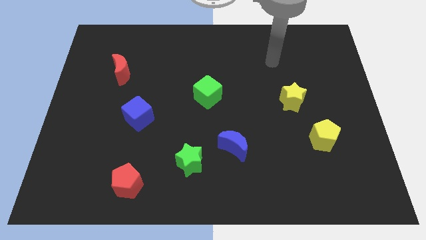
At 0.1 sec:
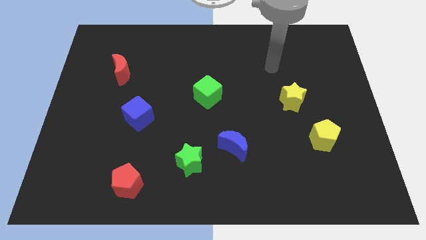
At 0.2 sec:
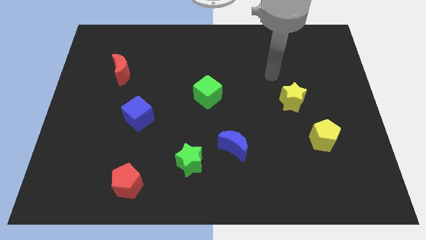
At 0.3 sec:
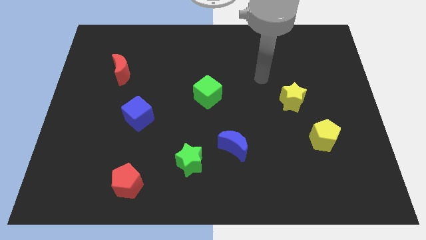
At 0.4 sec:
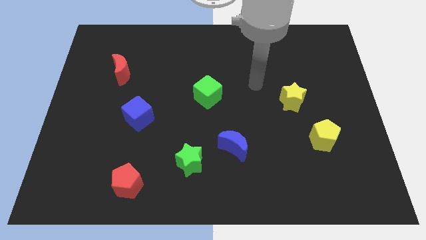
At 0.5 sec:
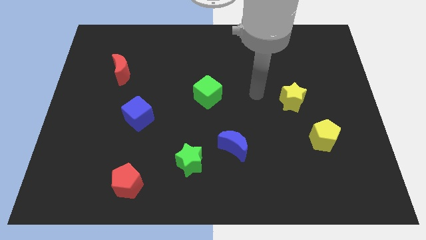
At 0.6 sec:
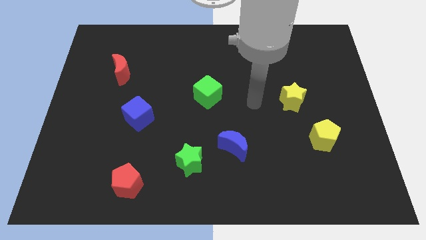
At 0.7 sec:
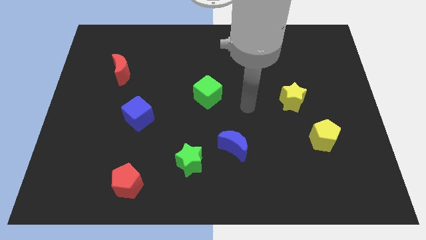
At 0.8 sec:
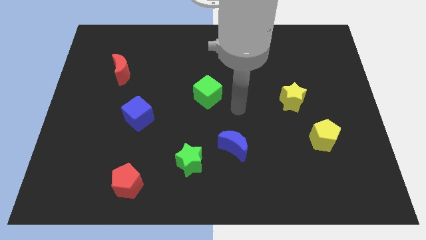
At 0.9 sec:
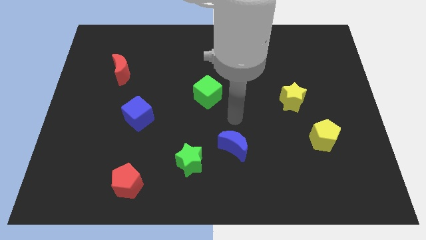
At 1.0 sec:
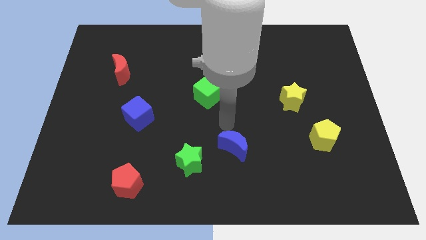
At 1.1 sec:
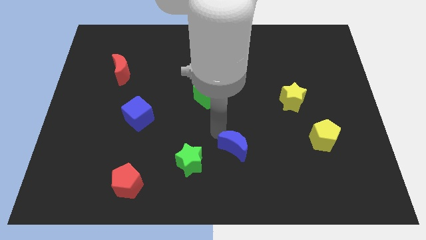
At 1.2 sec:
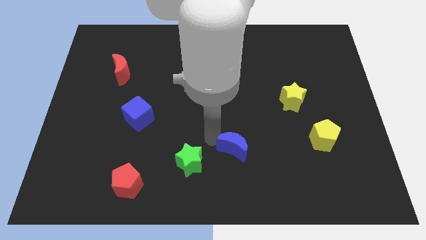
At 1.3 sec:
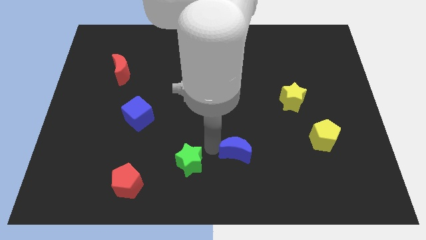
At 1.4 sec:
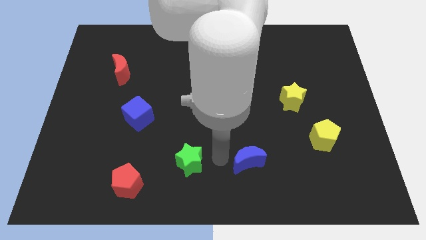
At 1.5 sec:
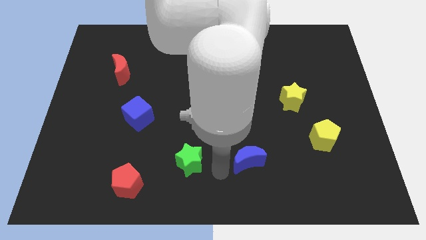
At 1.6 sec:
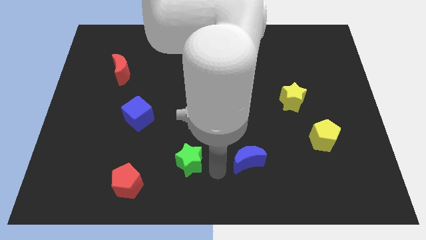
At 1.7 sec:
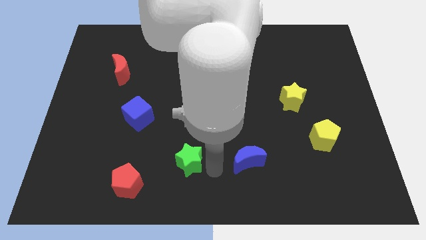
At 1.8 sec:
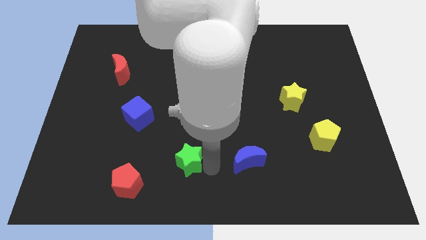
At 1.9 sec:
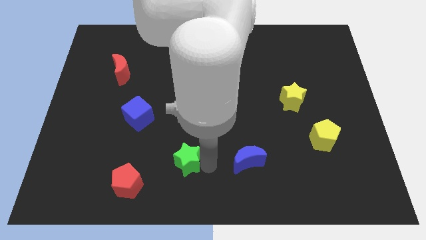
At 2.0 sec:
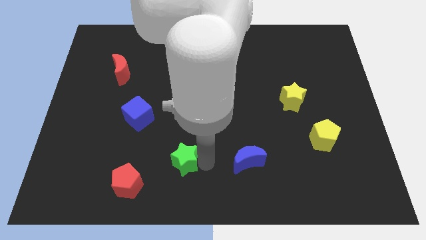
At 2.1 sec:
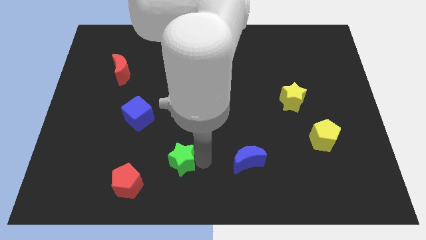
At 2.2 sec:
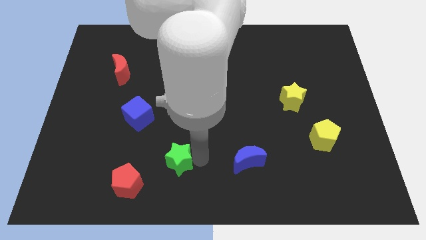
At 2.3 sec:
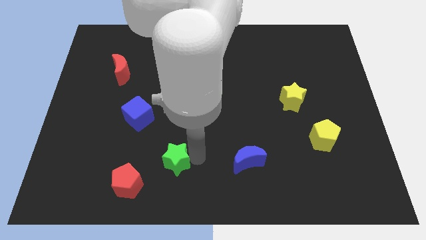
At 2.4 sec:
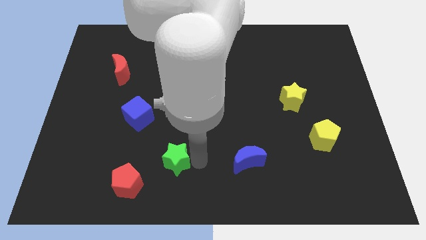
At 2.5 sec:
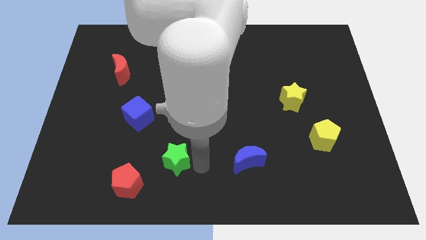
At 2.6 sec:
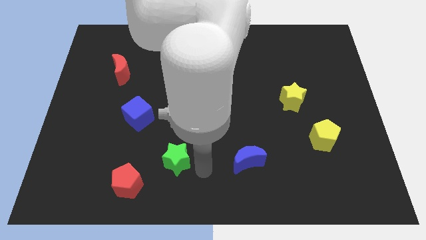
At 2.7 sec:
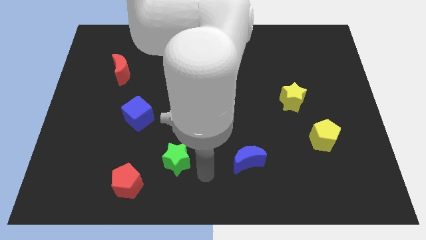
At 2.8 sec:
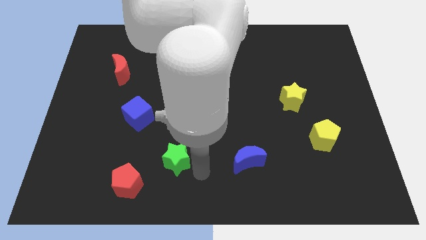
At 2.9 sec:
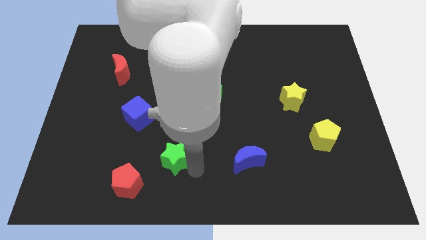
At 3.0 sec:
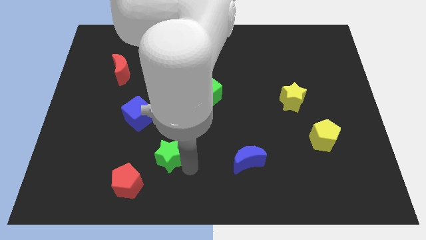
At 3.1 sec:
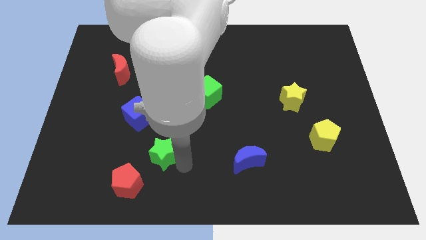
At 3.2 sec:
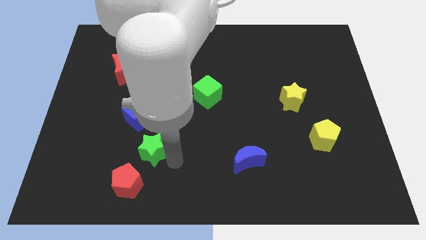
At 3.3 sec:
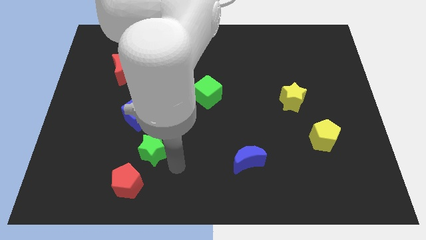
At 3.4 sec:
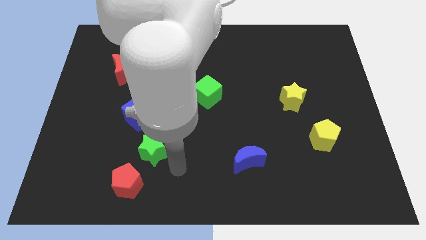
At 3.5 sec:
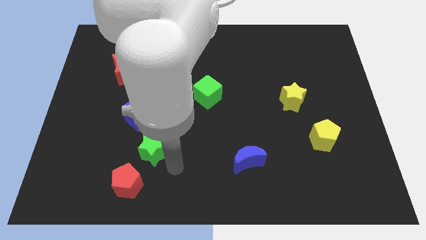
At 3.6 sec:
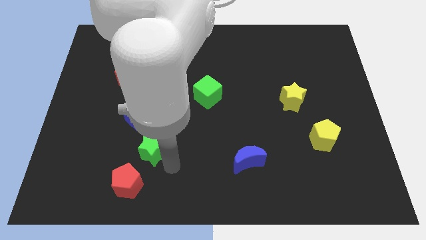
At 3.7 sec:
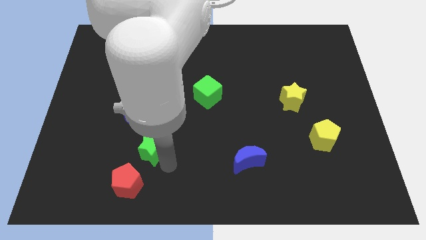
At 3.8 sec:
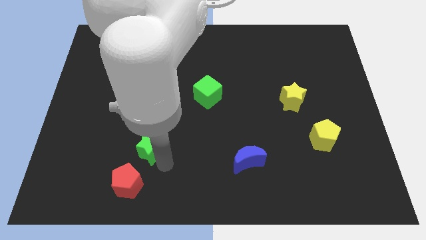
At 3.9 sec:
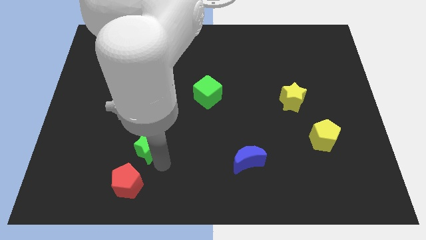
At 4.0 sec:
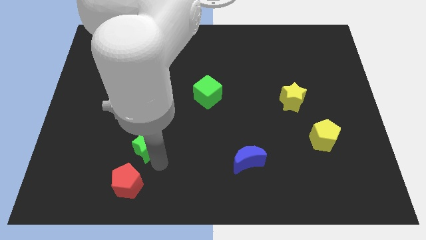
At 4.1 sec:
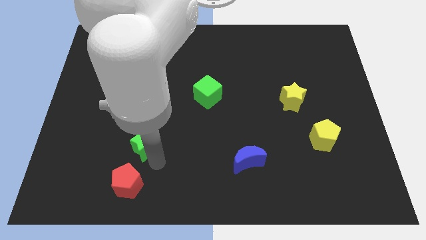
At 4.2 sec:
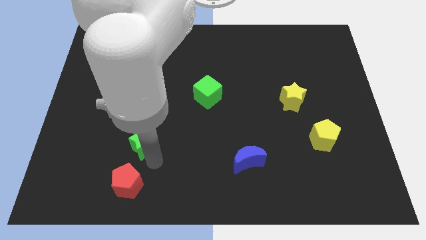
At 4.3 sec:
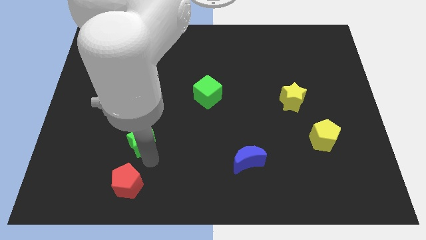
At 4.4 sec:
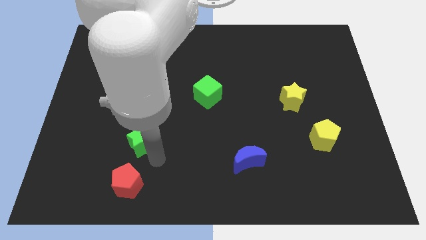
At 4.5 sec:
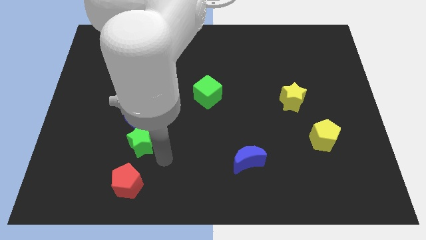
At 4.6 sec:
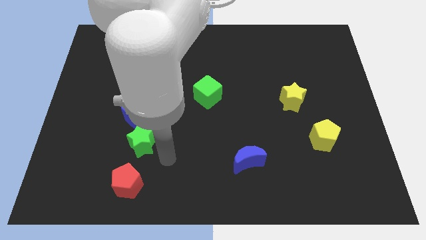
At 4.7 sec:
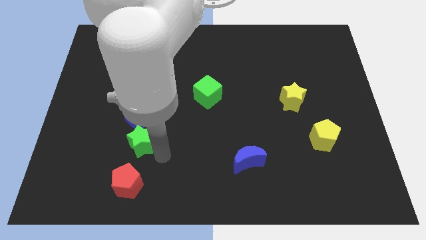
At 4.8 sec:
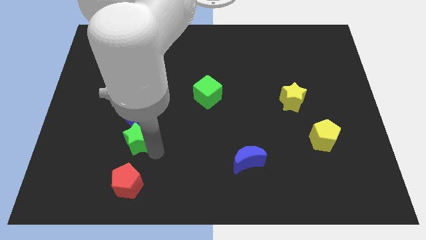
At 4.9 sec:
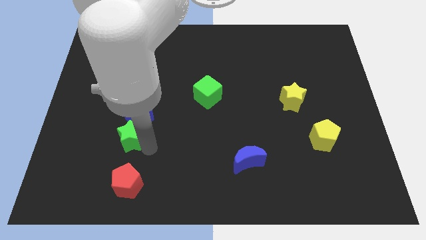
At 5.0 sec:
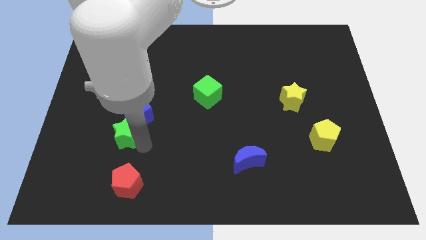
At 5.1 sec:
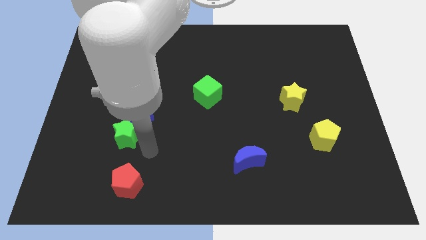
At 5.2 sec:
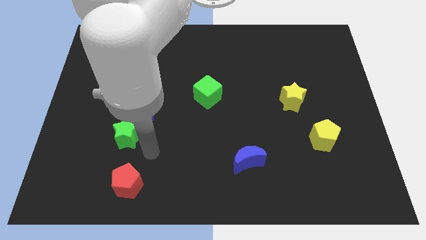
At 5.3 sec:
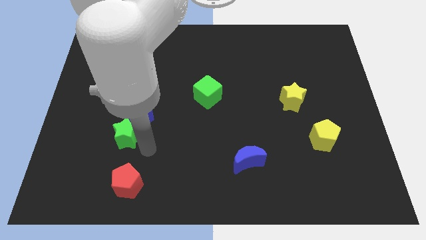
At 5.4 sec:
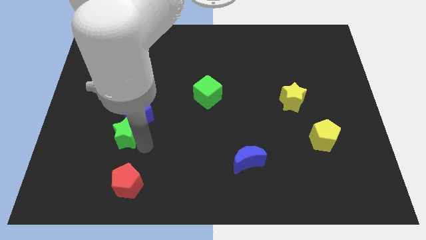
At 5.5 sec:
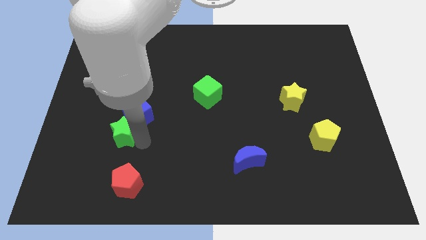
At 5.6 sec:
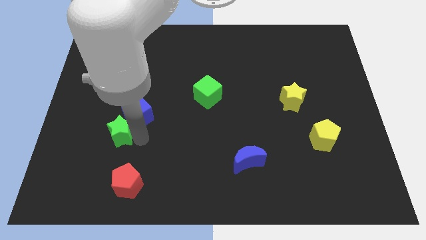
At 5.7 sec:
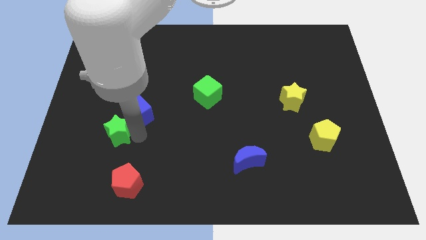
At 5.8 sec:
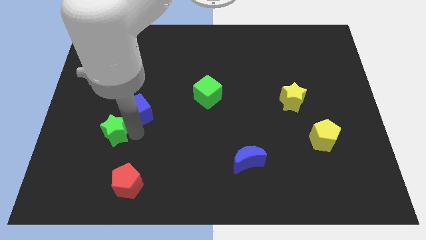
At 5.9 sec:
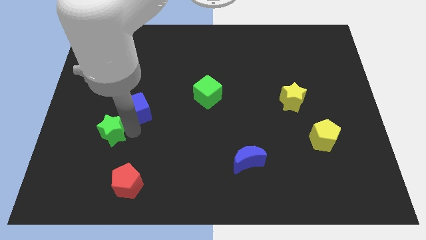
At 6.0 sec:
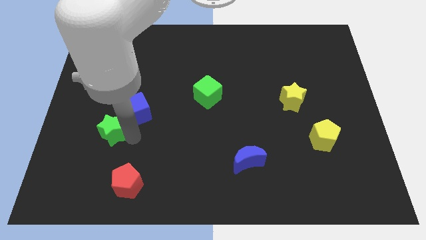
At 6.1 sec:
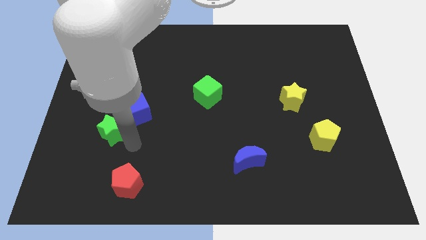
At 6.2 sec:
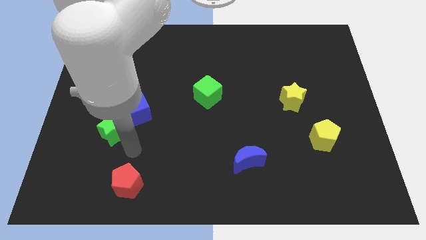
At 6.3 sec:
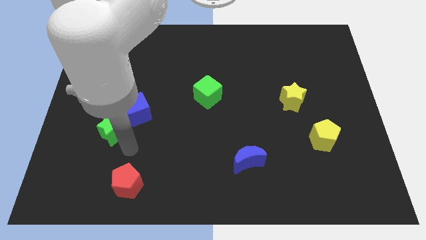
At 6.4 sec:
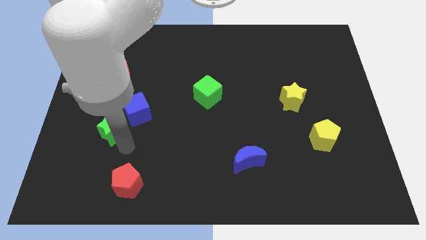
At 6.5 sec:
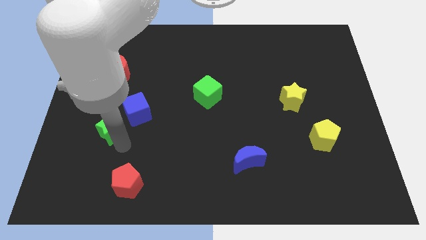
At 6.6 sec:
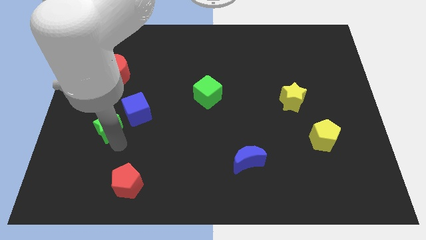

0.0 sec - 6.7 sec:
move the green star left of the blue cube

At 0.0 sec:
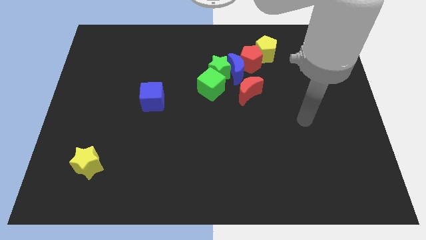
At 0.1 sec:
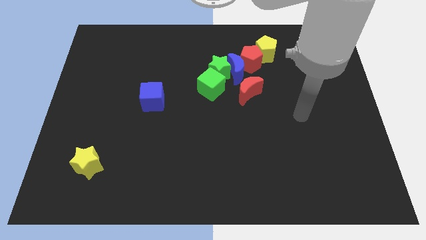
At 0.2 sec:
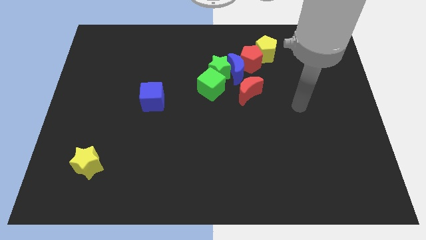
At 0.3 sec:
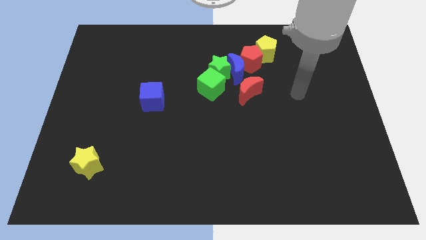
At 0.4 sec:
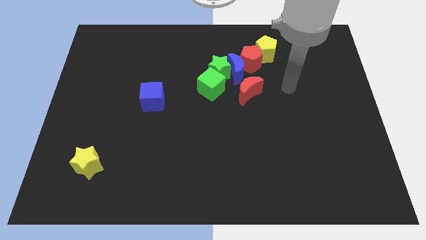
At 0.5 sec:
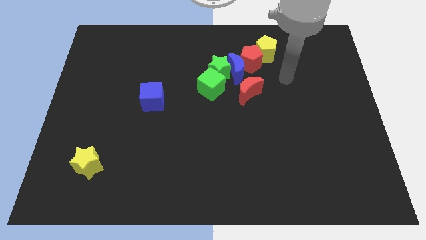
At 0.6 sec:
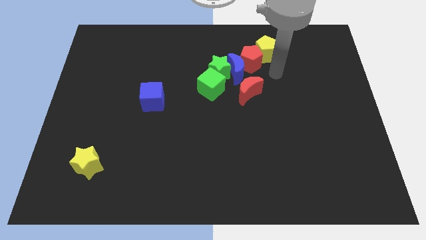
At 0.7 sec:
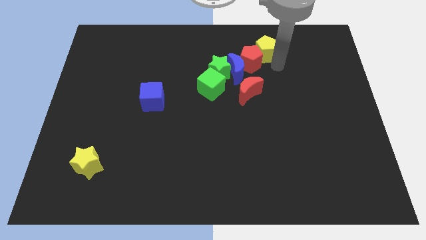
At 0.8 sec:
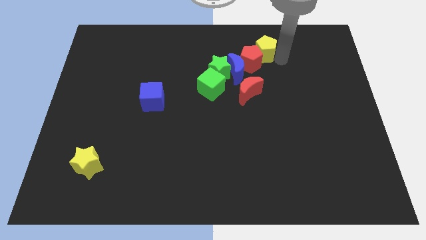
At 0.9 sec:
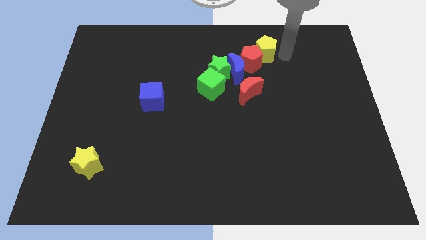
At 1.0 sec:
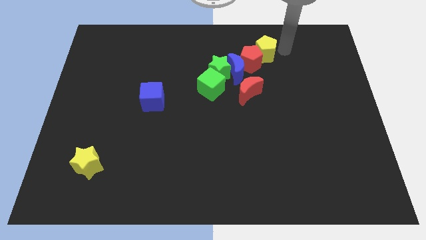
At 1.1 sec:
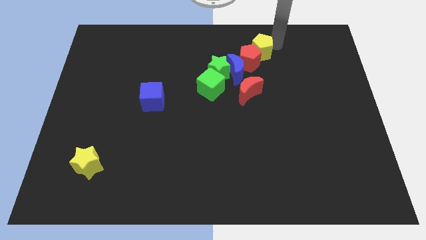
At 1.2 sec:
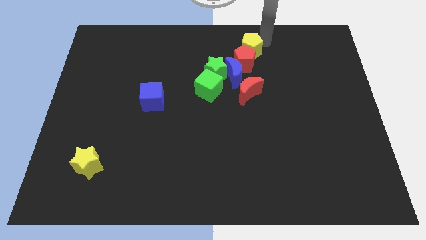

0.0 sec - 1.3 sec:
slide the blue moon to the right side of the green cube
